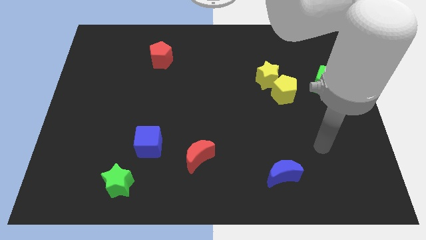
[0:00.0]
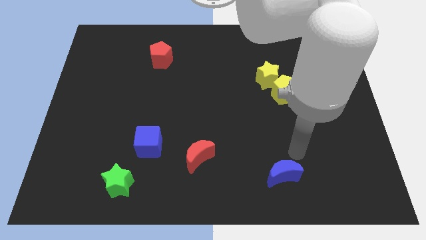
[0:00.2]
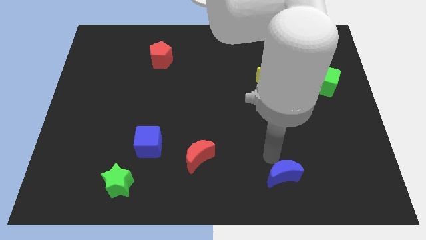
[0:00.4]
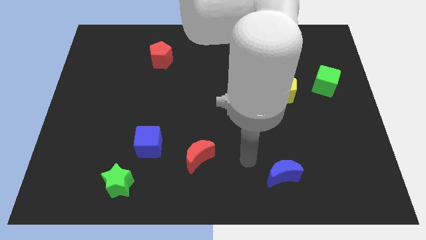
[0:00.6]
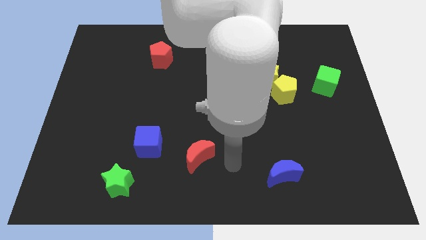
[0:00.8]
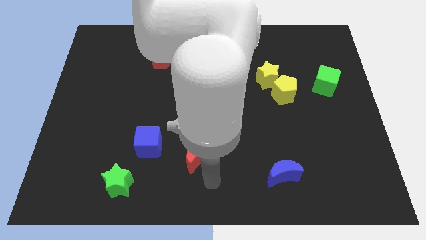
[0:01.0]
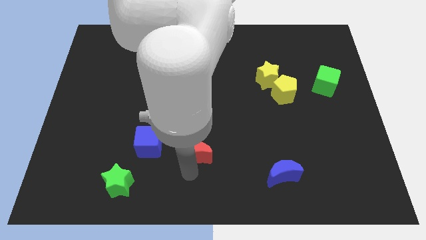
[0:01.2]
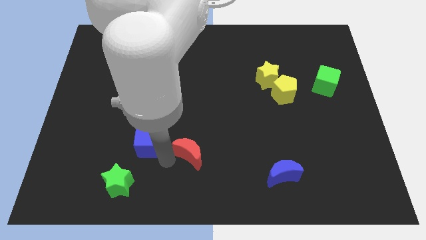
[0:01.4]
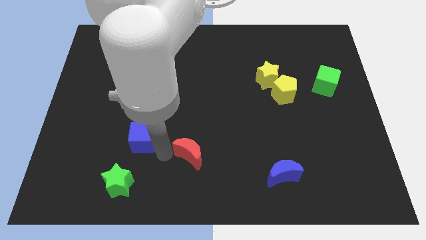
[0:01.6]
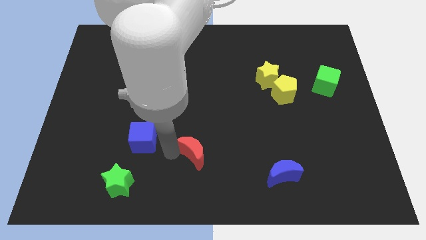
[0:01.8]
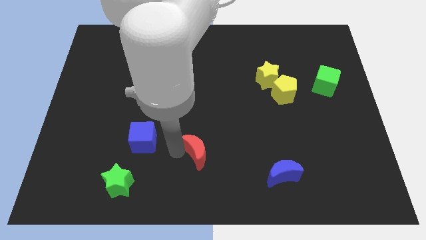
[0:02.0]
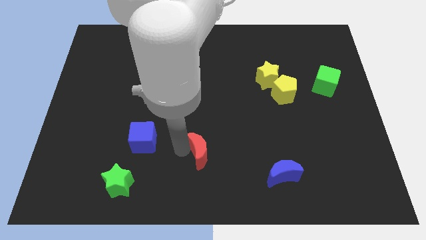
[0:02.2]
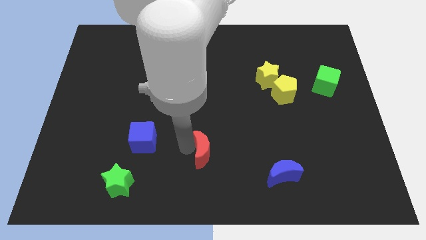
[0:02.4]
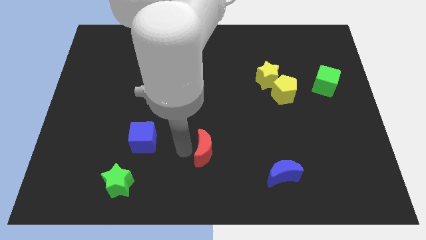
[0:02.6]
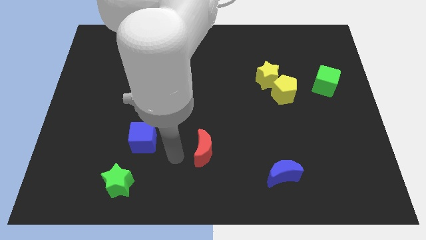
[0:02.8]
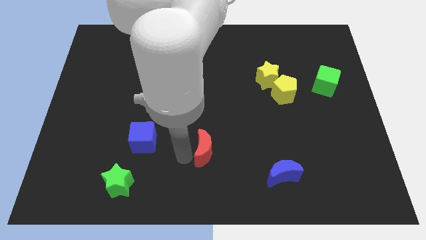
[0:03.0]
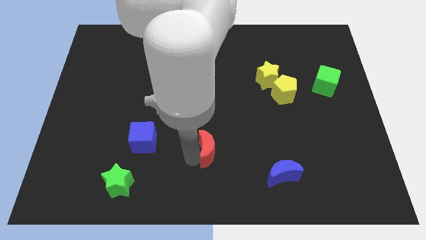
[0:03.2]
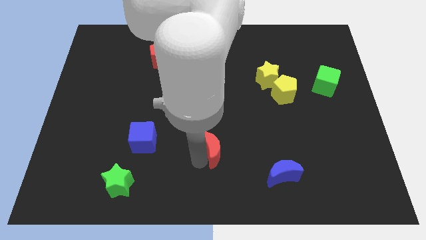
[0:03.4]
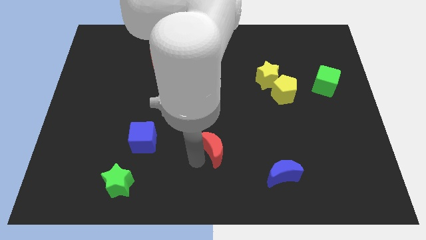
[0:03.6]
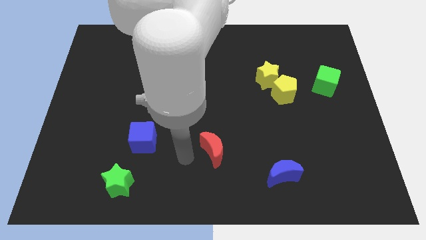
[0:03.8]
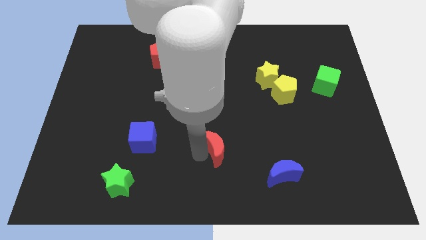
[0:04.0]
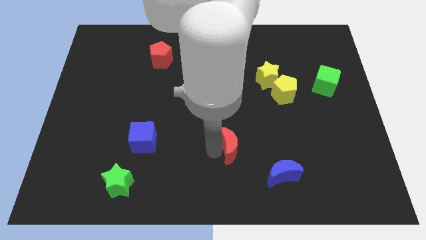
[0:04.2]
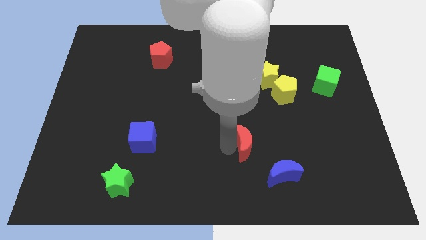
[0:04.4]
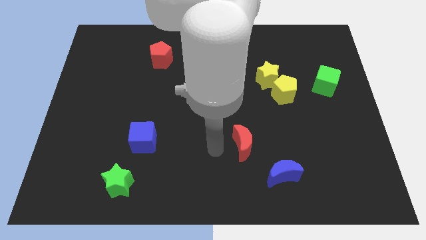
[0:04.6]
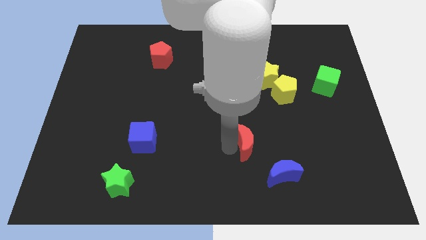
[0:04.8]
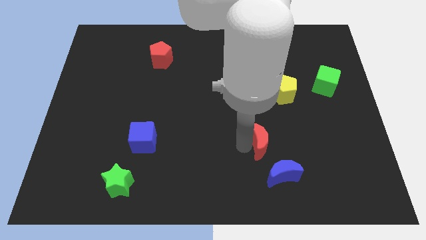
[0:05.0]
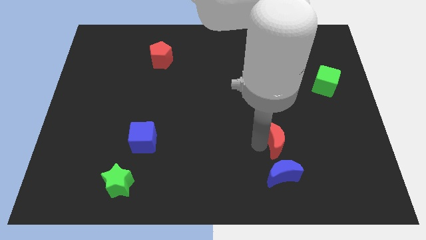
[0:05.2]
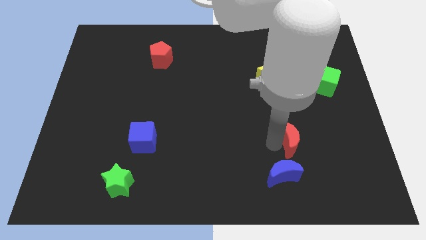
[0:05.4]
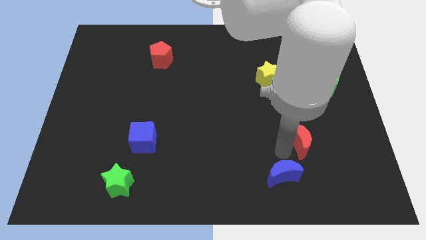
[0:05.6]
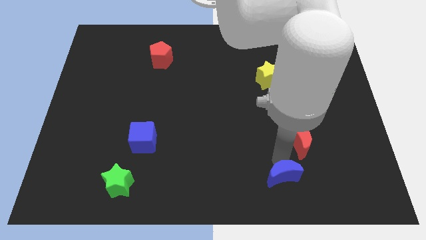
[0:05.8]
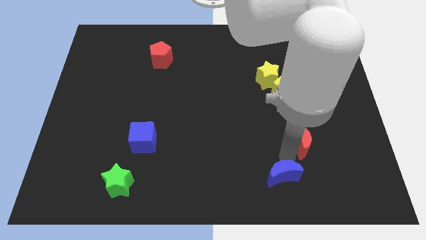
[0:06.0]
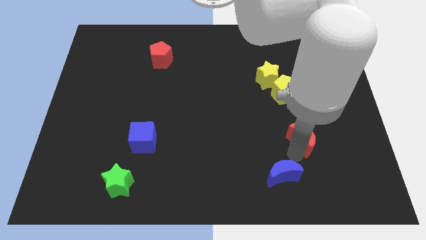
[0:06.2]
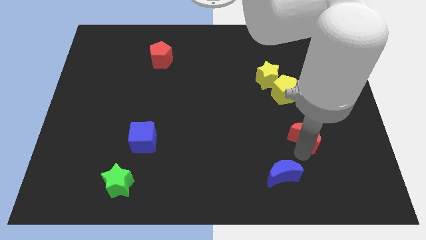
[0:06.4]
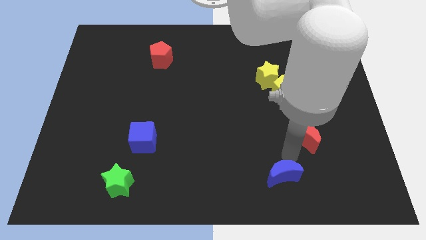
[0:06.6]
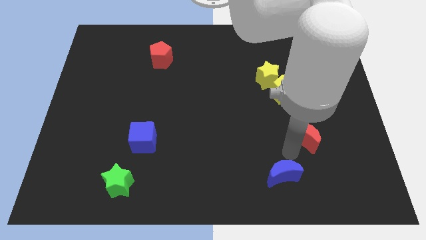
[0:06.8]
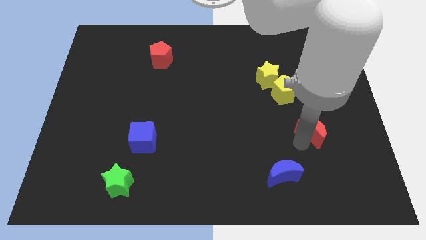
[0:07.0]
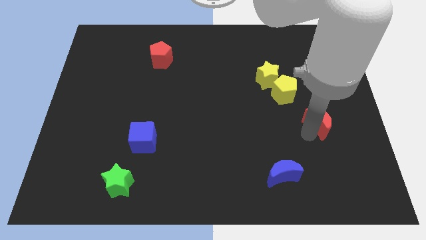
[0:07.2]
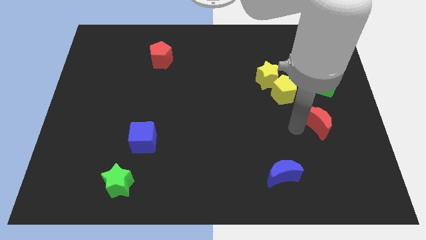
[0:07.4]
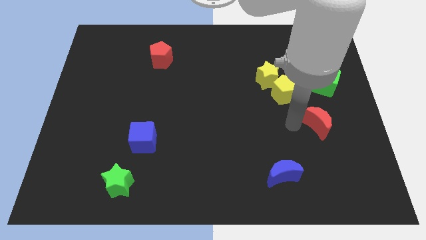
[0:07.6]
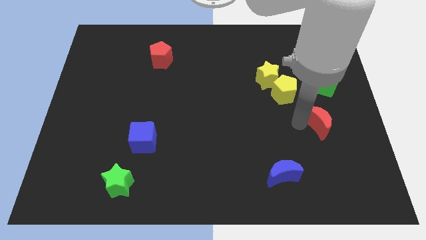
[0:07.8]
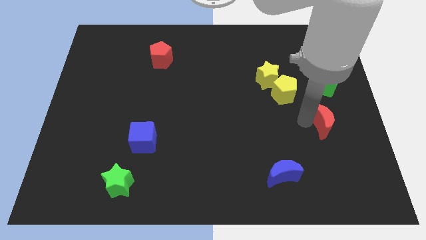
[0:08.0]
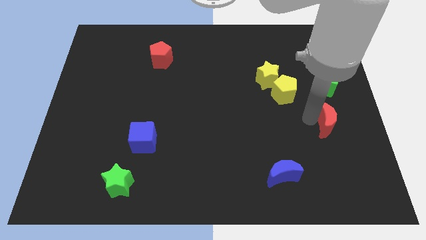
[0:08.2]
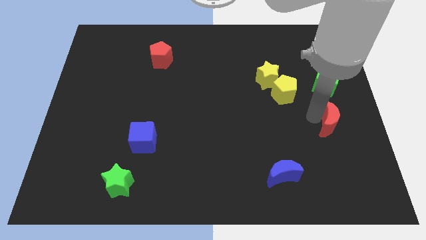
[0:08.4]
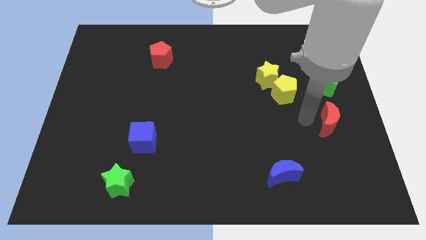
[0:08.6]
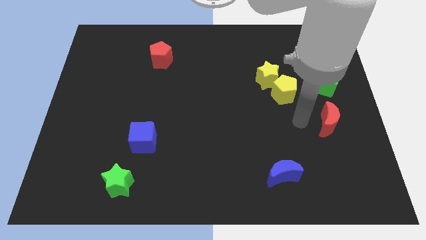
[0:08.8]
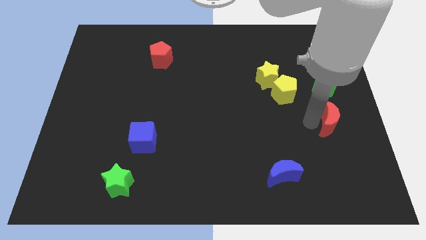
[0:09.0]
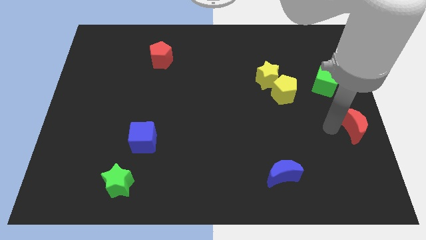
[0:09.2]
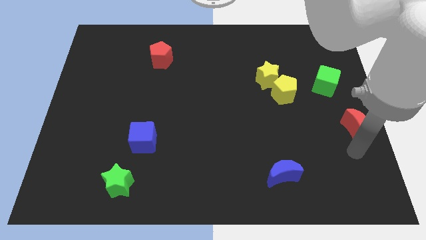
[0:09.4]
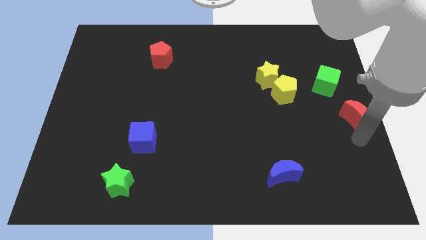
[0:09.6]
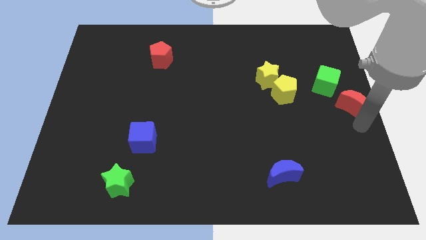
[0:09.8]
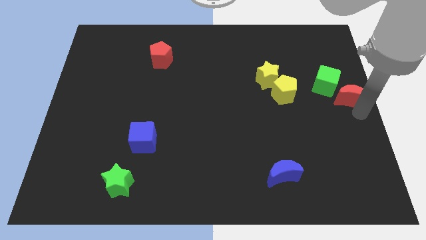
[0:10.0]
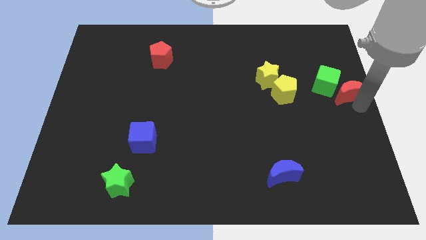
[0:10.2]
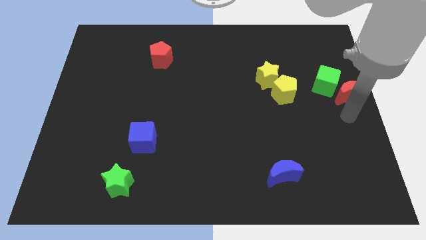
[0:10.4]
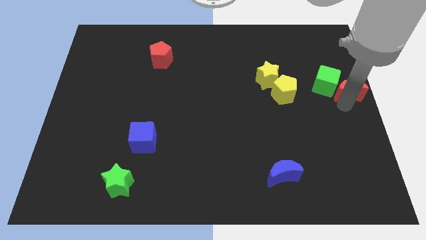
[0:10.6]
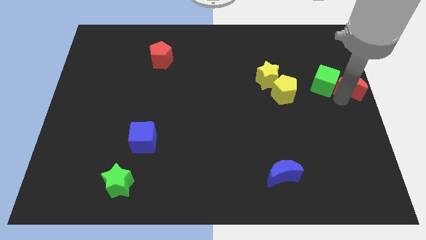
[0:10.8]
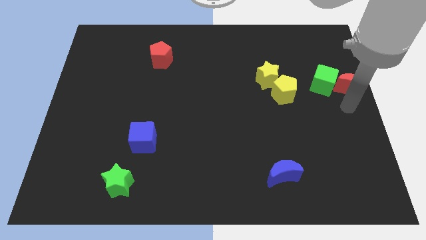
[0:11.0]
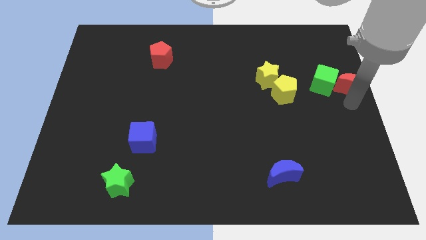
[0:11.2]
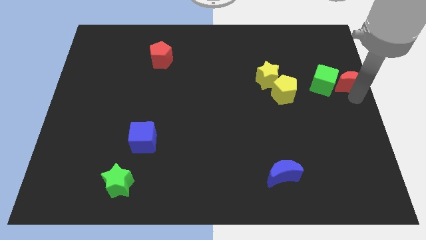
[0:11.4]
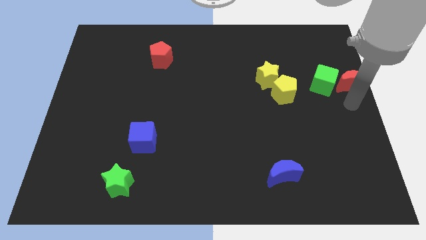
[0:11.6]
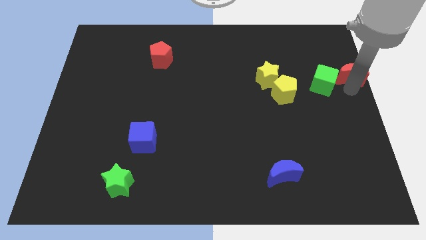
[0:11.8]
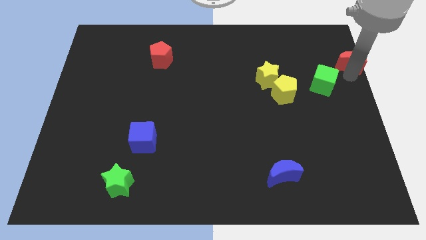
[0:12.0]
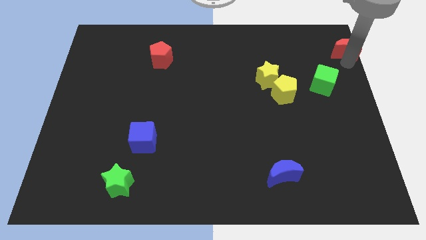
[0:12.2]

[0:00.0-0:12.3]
slide the red moon to the upper right corner
